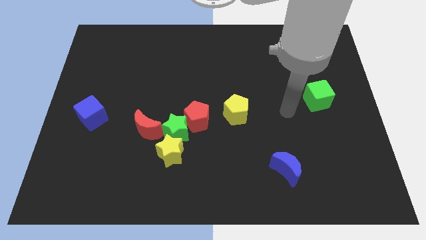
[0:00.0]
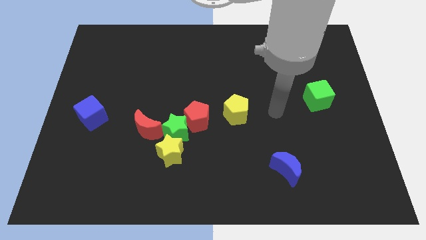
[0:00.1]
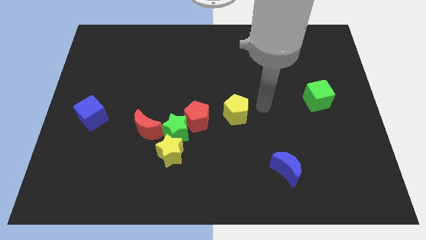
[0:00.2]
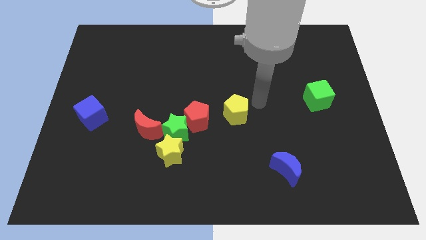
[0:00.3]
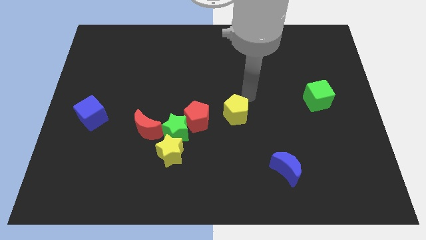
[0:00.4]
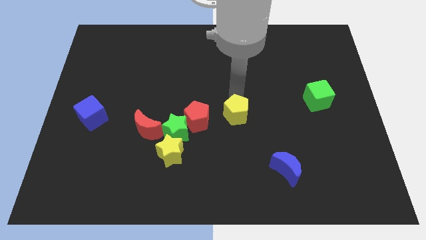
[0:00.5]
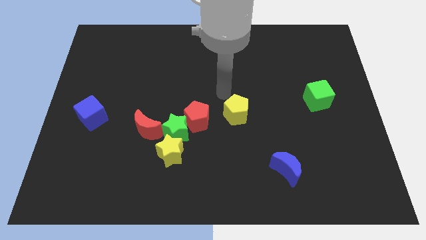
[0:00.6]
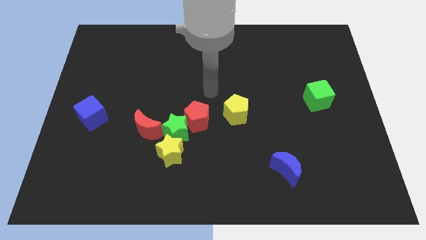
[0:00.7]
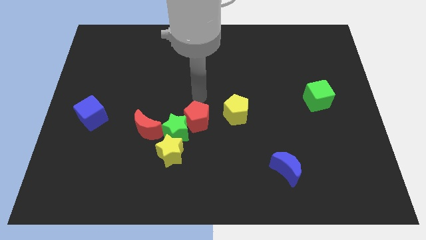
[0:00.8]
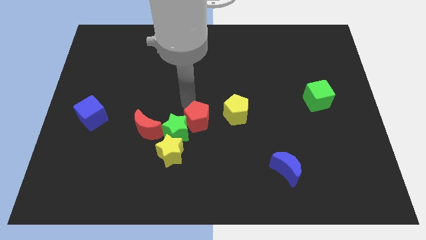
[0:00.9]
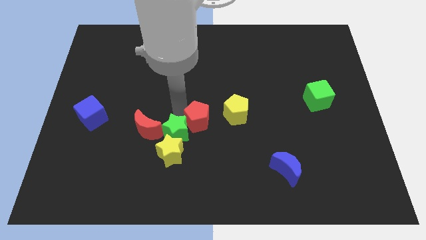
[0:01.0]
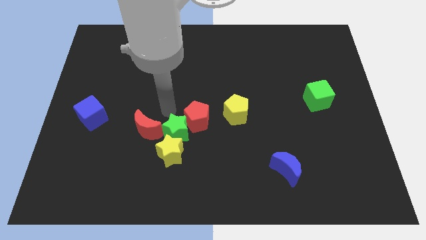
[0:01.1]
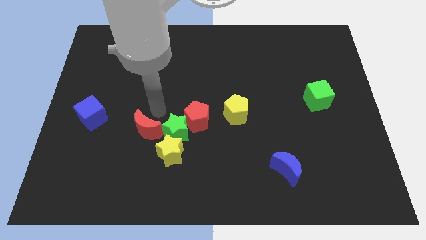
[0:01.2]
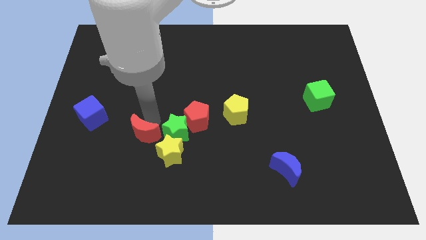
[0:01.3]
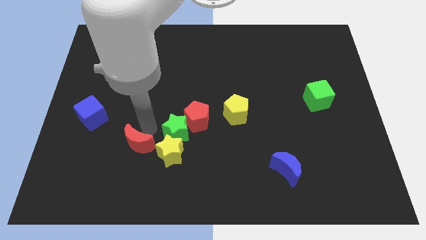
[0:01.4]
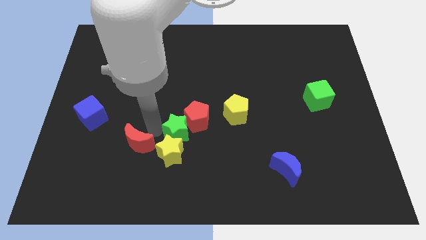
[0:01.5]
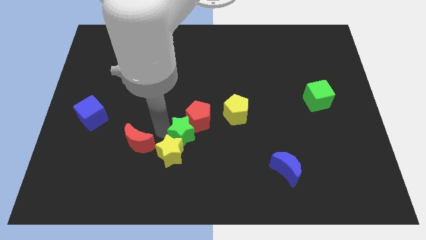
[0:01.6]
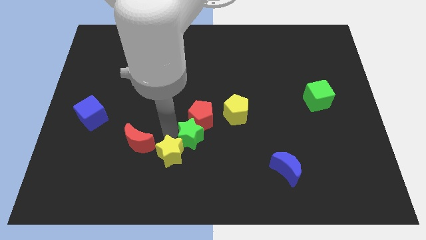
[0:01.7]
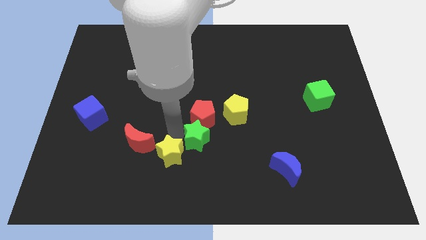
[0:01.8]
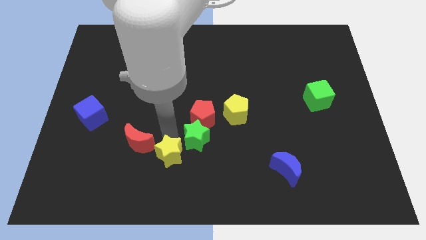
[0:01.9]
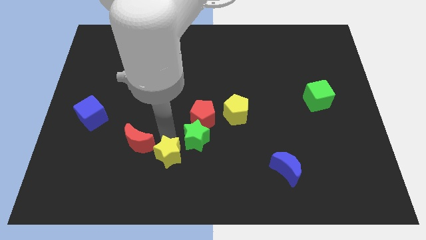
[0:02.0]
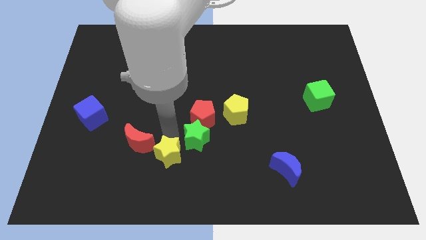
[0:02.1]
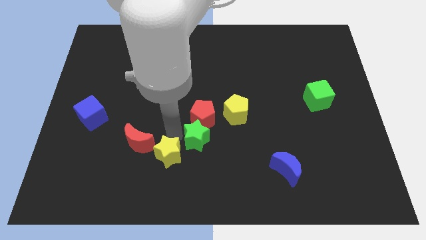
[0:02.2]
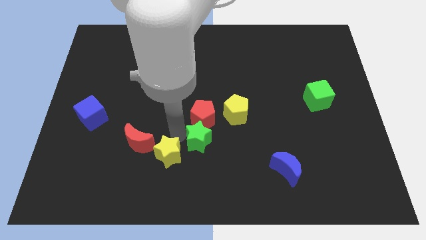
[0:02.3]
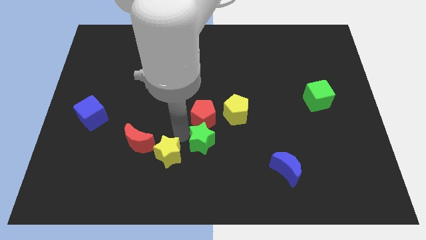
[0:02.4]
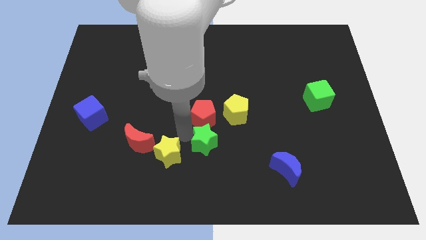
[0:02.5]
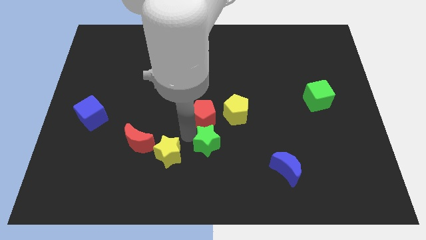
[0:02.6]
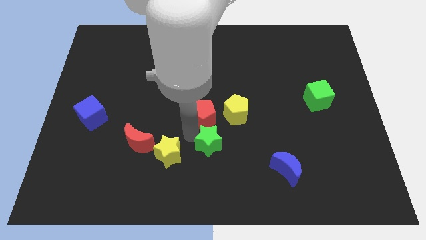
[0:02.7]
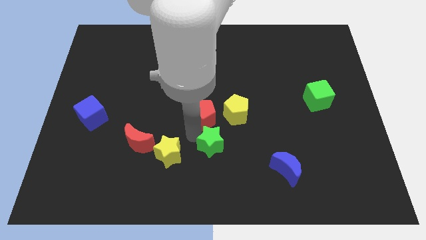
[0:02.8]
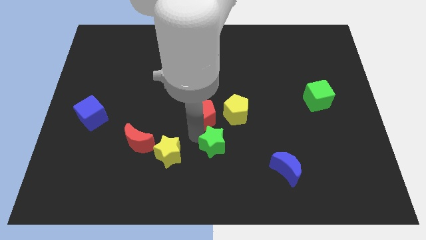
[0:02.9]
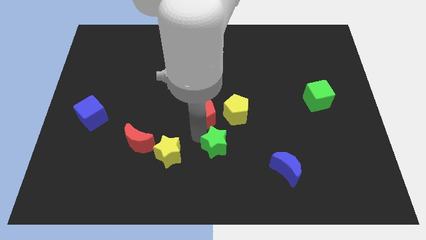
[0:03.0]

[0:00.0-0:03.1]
pull the green star apart from the yellow star, red pentagon, and red moon

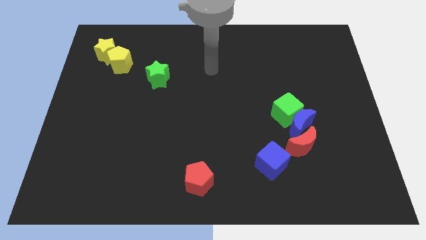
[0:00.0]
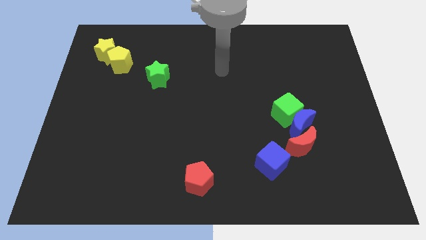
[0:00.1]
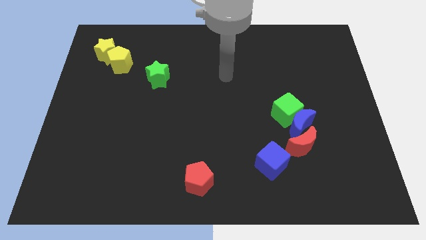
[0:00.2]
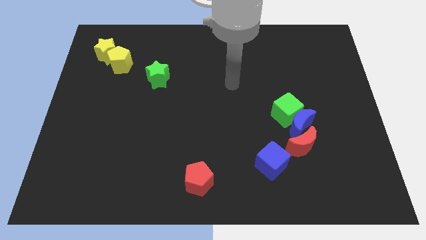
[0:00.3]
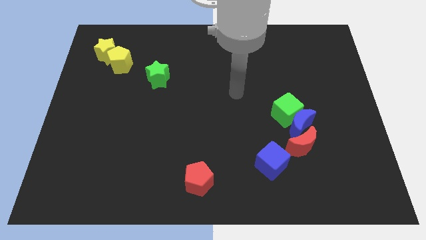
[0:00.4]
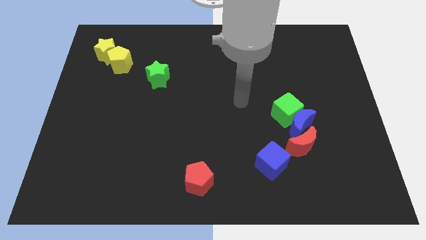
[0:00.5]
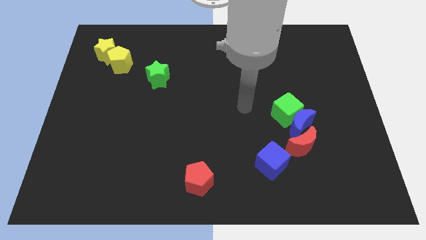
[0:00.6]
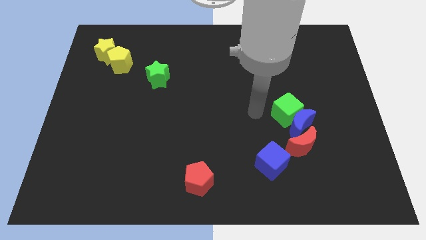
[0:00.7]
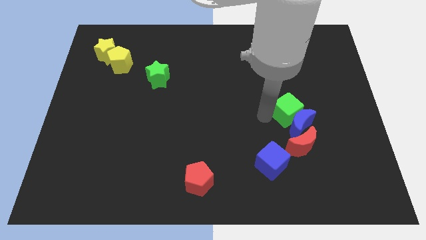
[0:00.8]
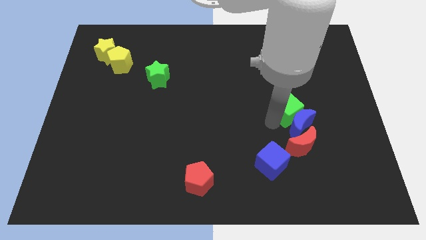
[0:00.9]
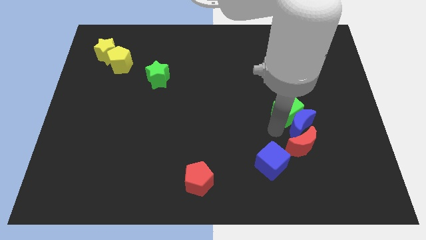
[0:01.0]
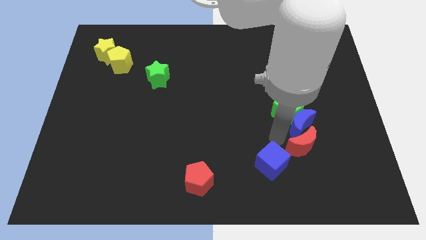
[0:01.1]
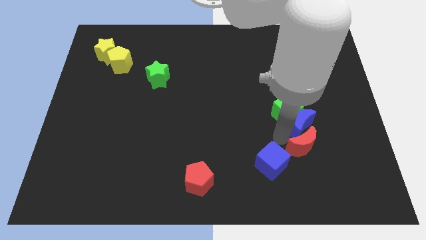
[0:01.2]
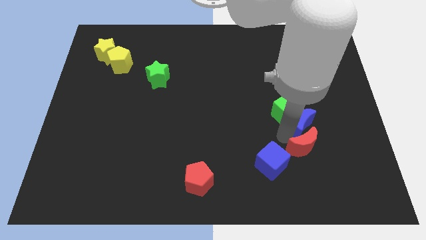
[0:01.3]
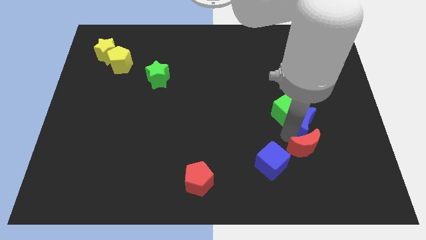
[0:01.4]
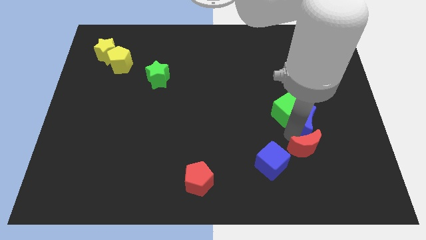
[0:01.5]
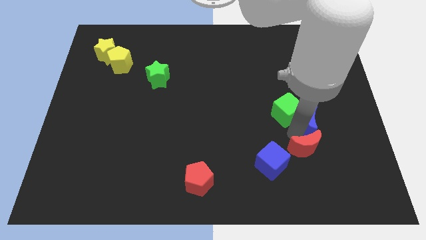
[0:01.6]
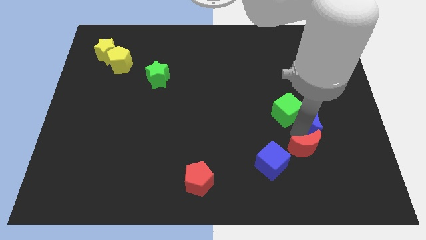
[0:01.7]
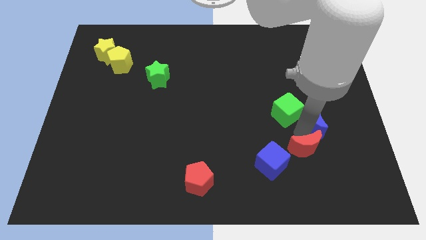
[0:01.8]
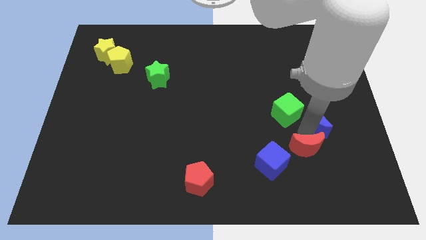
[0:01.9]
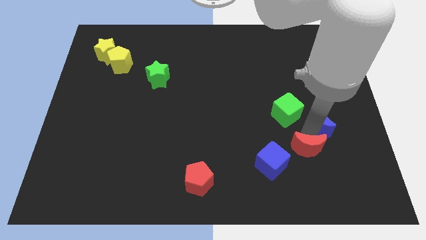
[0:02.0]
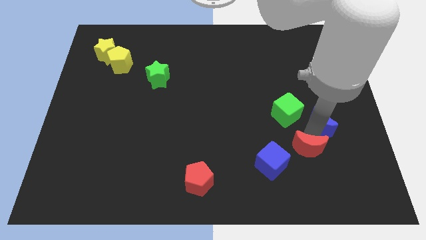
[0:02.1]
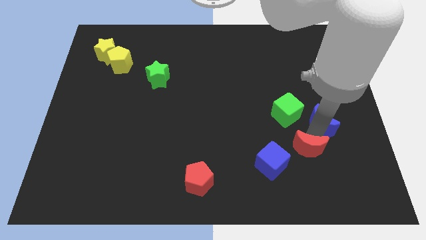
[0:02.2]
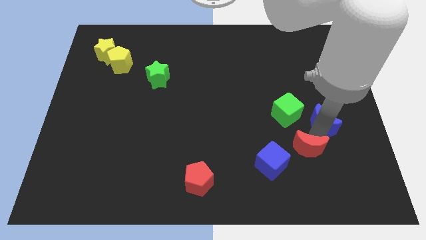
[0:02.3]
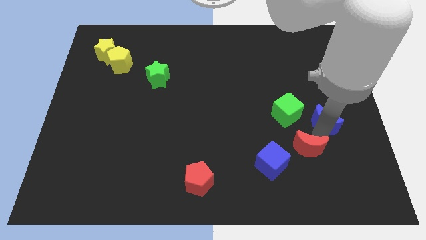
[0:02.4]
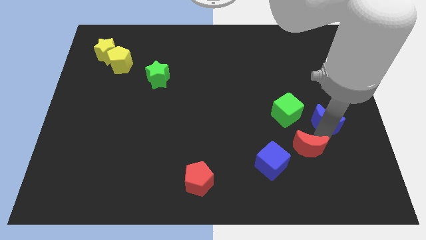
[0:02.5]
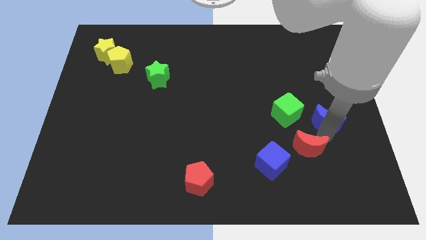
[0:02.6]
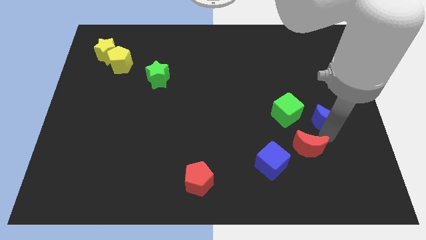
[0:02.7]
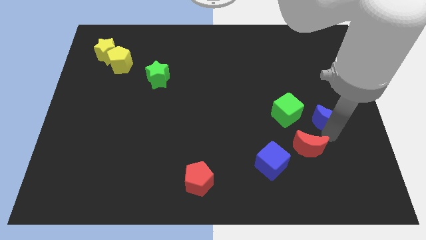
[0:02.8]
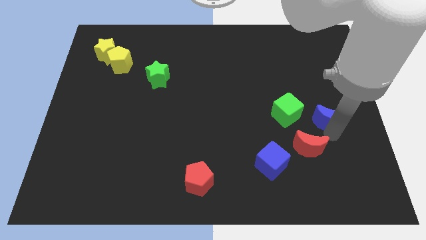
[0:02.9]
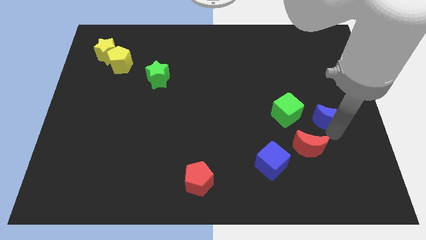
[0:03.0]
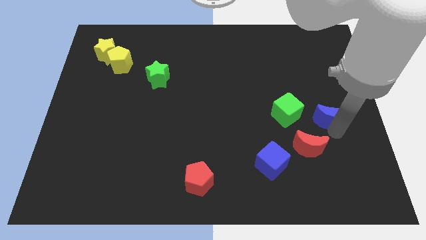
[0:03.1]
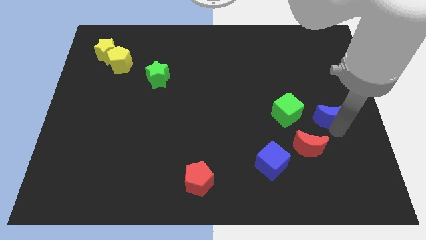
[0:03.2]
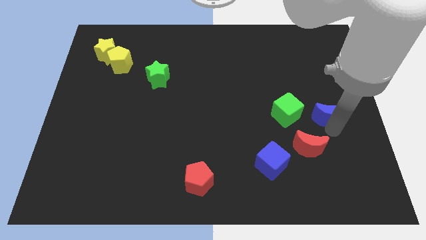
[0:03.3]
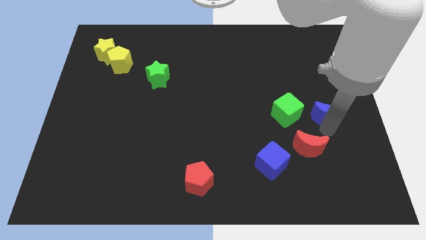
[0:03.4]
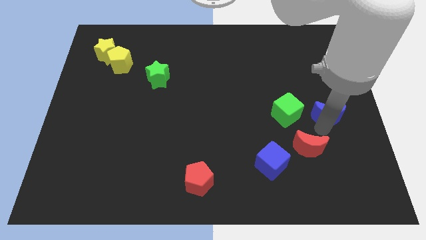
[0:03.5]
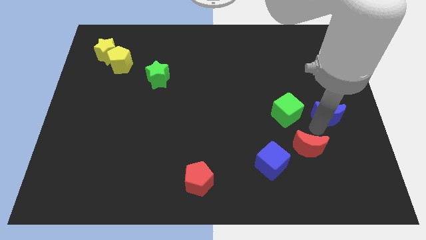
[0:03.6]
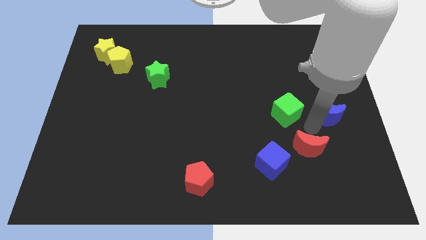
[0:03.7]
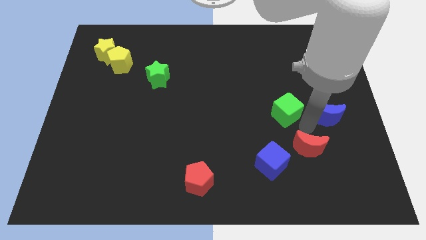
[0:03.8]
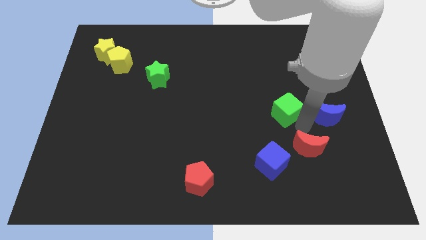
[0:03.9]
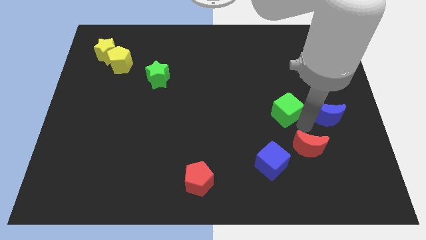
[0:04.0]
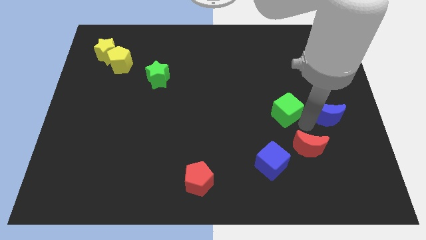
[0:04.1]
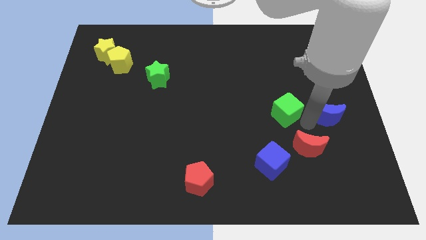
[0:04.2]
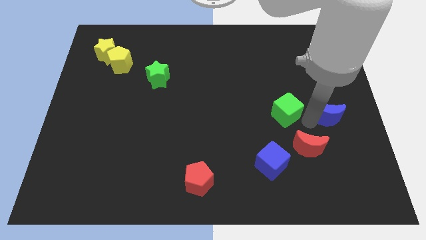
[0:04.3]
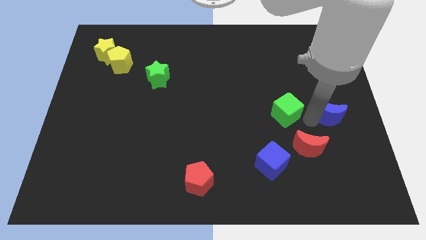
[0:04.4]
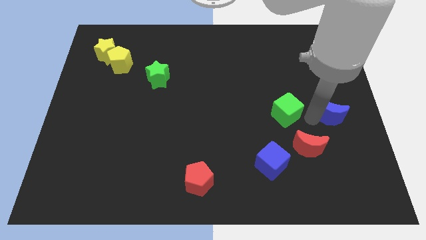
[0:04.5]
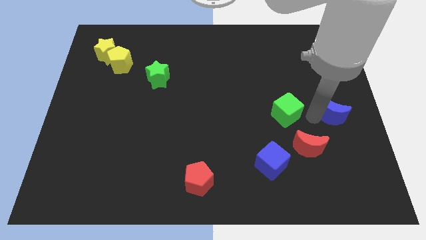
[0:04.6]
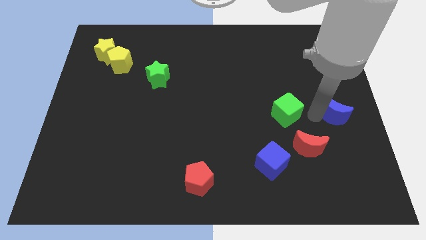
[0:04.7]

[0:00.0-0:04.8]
separate the blue moon from the green cube and red moon

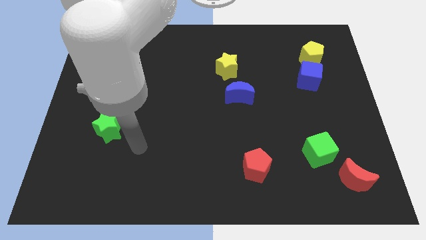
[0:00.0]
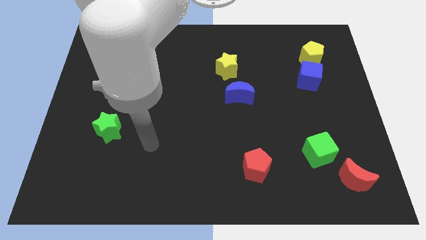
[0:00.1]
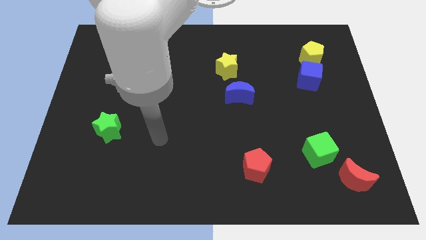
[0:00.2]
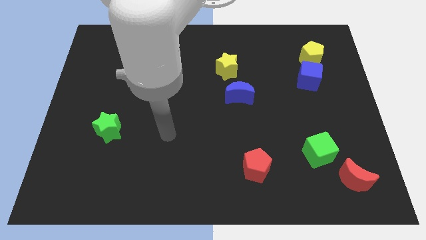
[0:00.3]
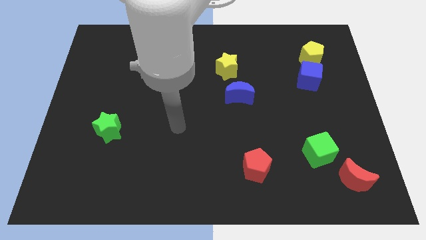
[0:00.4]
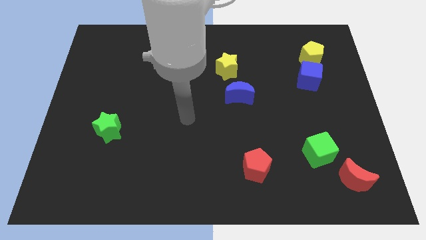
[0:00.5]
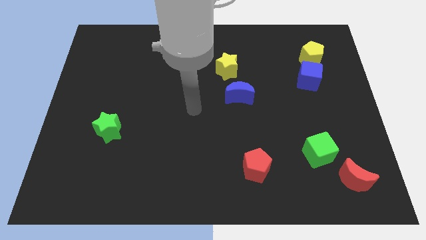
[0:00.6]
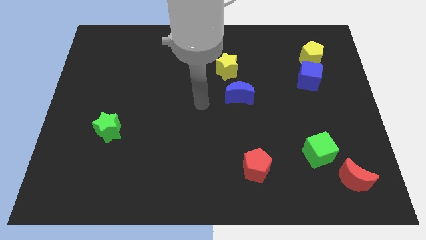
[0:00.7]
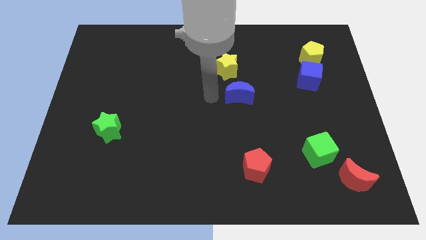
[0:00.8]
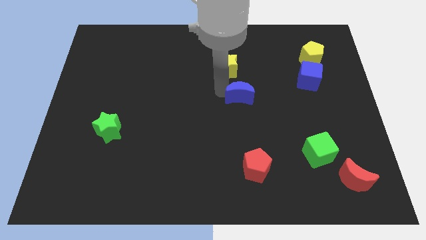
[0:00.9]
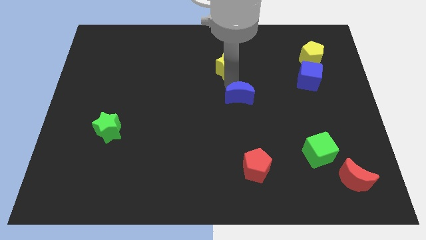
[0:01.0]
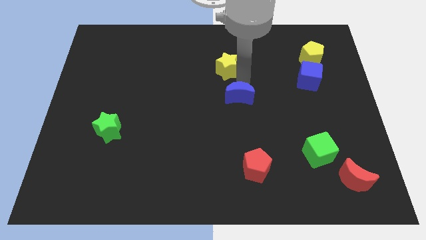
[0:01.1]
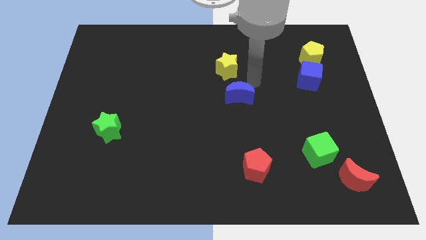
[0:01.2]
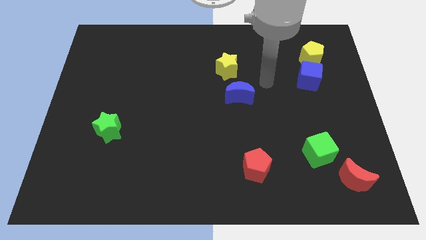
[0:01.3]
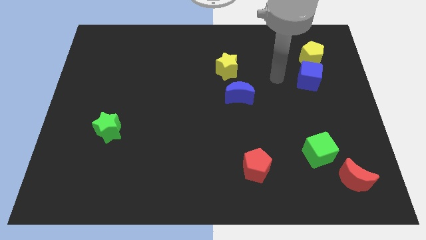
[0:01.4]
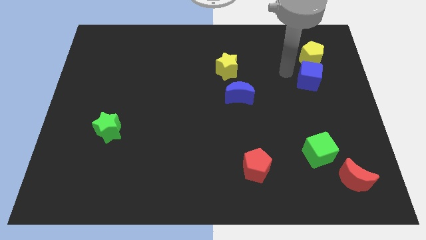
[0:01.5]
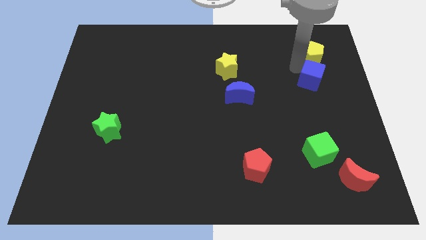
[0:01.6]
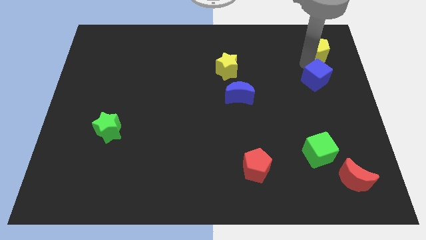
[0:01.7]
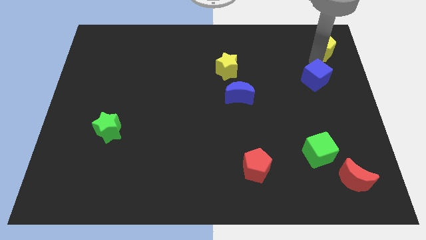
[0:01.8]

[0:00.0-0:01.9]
separate the blue cube from the yellow pentagon
